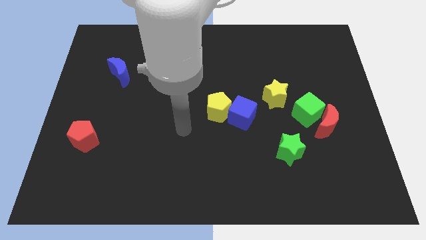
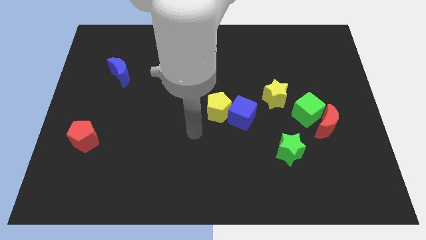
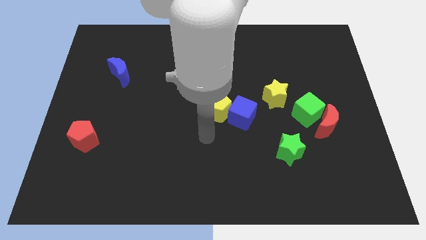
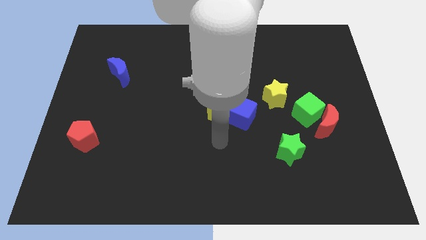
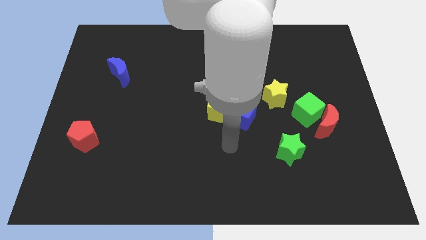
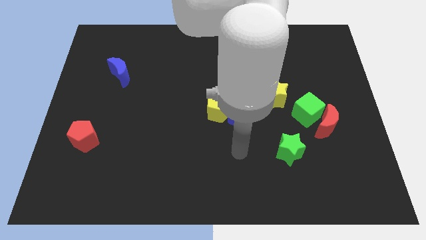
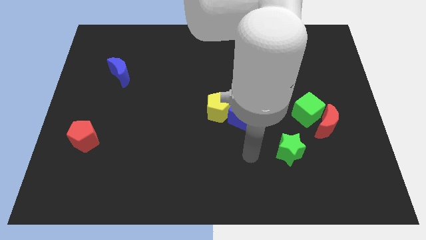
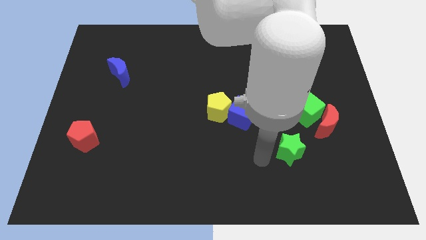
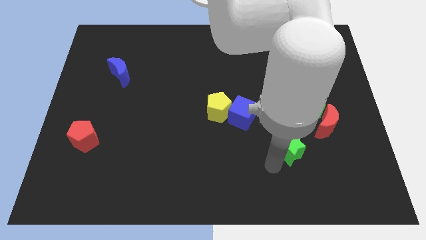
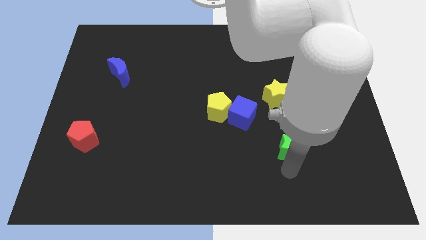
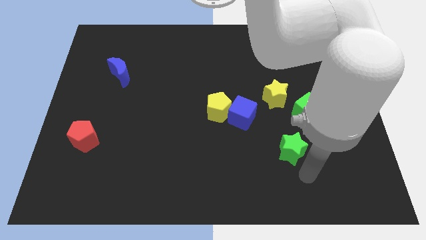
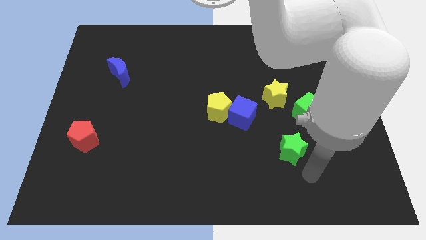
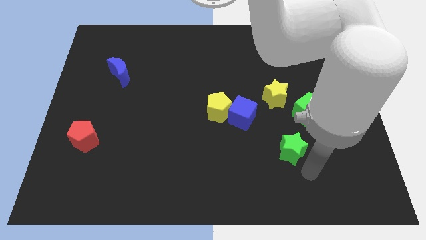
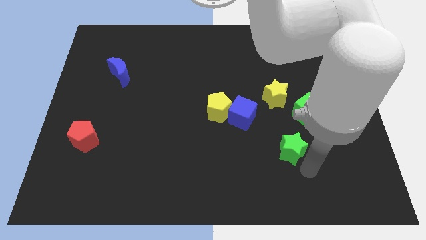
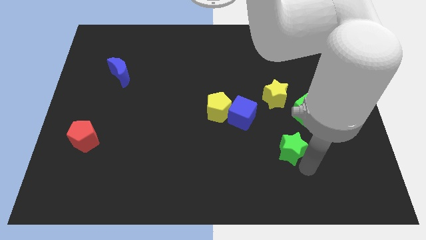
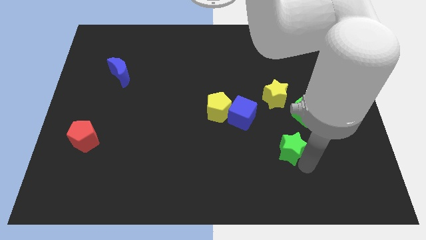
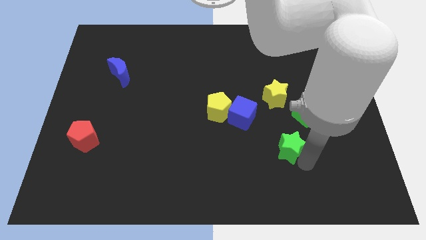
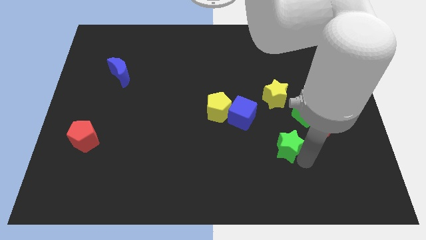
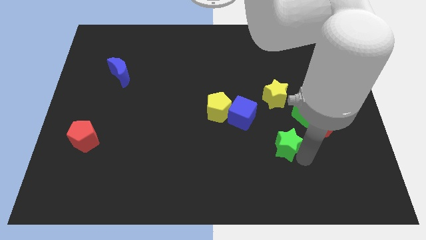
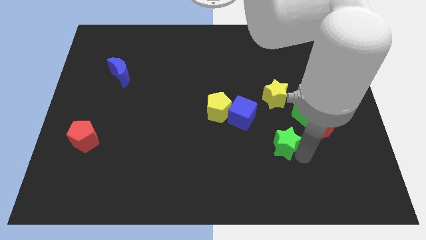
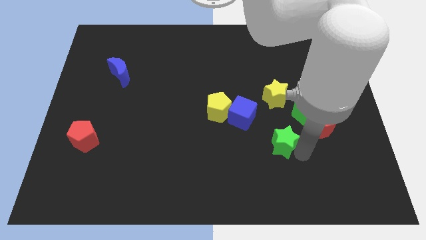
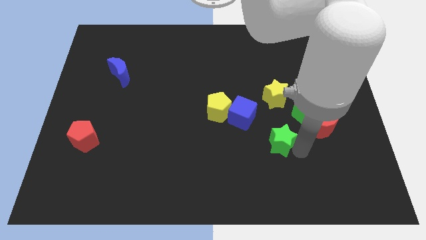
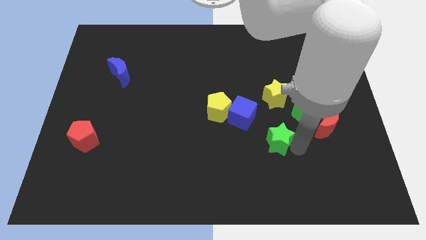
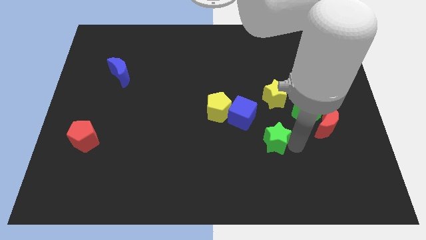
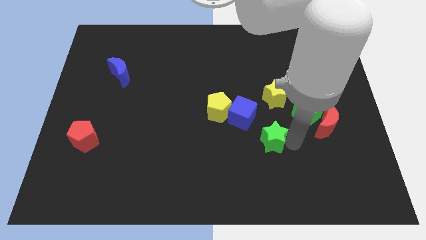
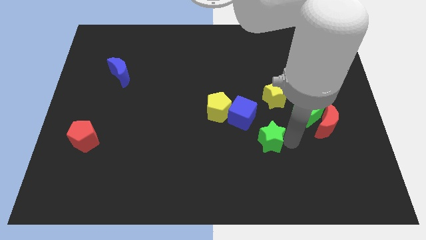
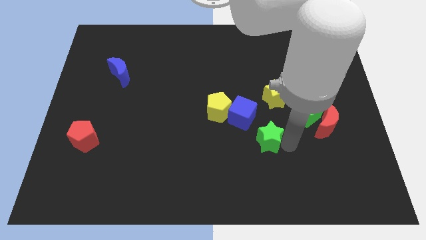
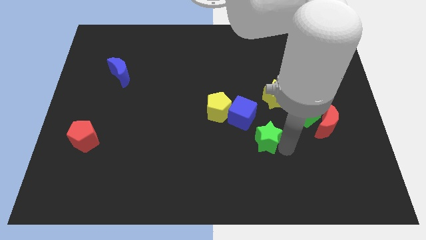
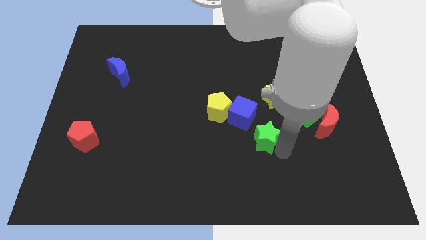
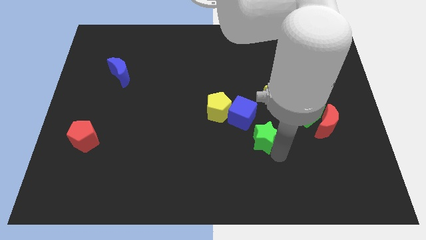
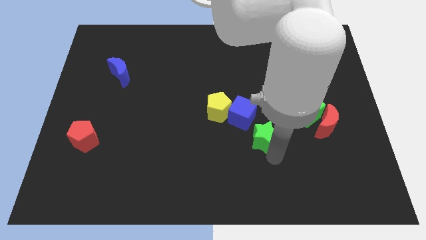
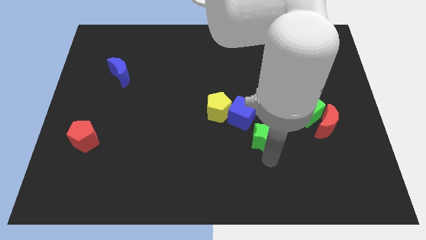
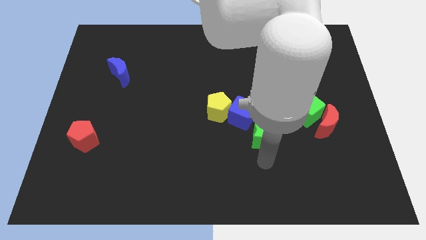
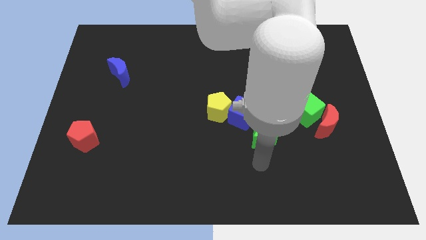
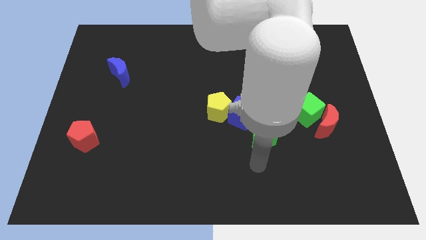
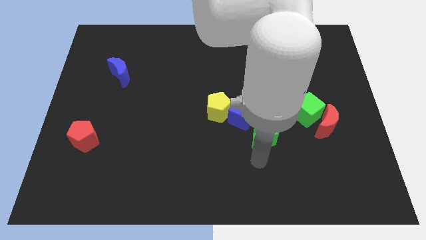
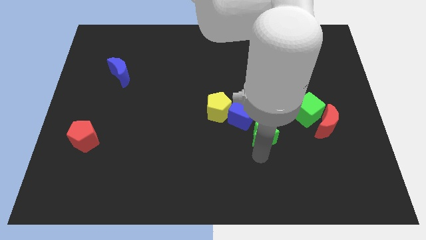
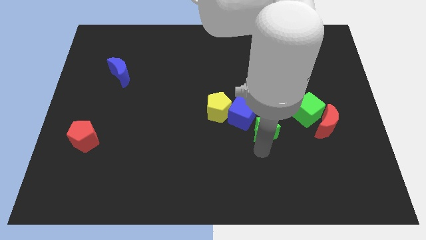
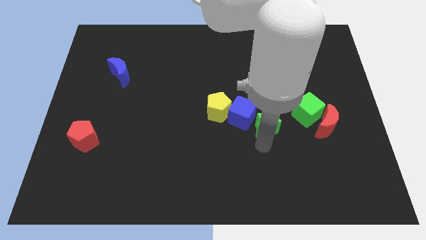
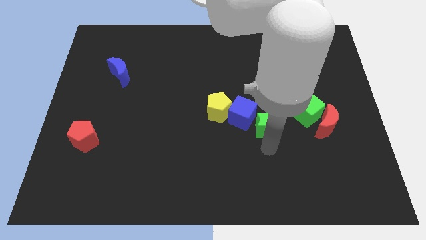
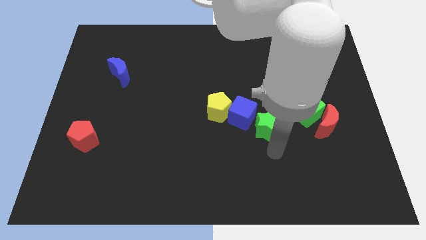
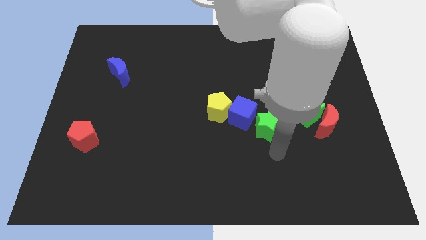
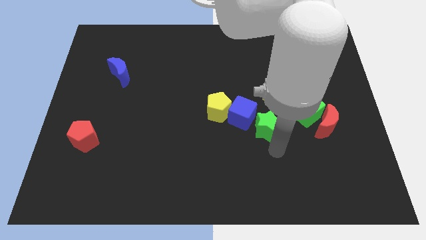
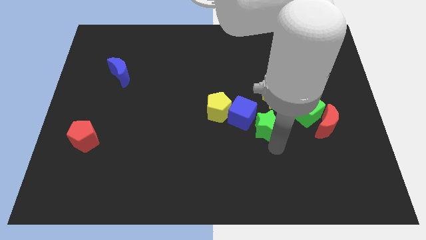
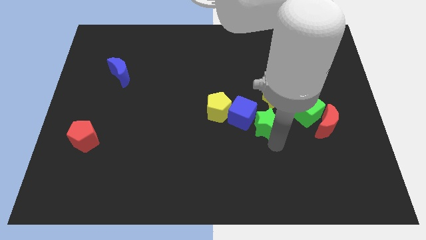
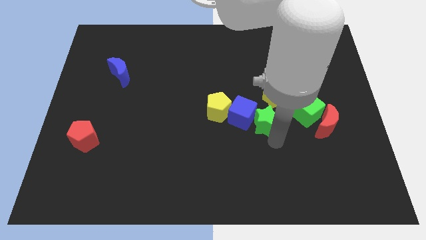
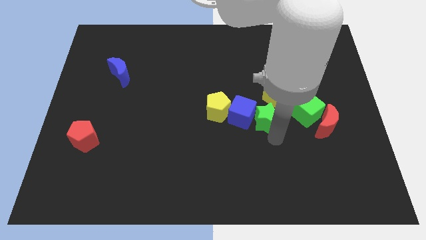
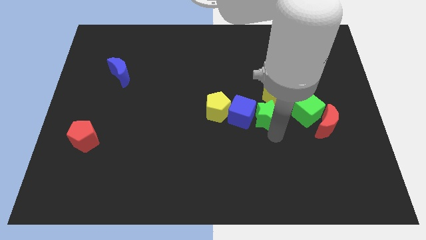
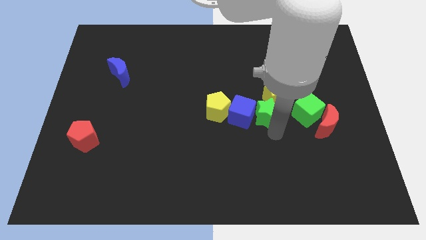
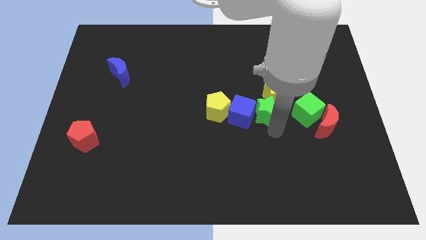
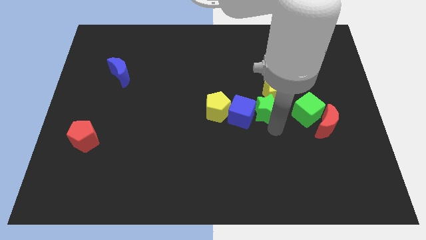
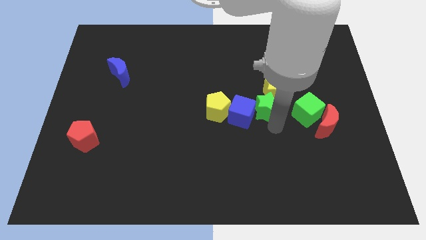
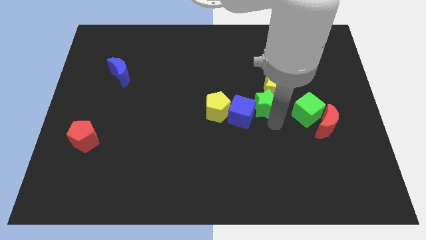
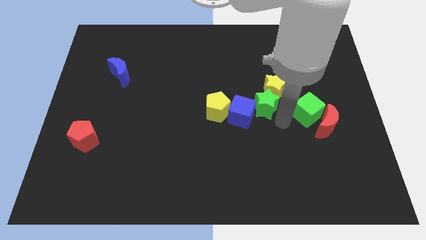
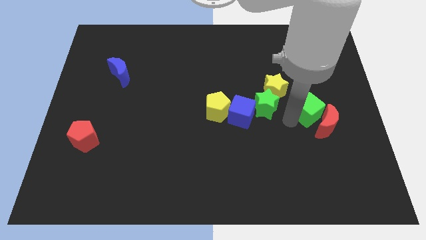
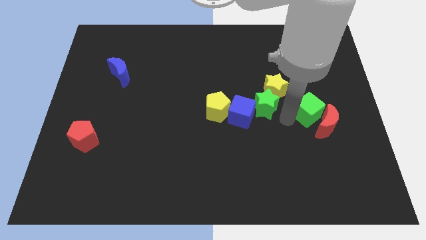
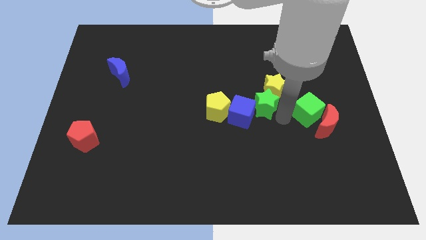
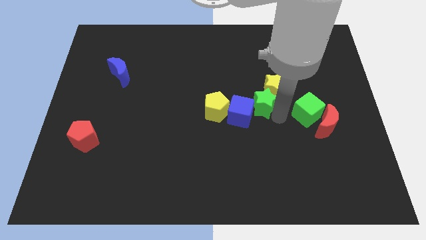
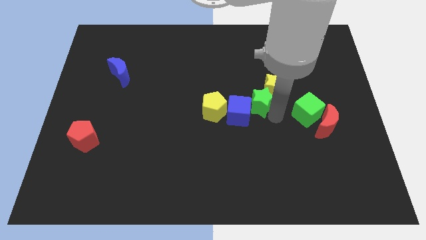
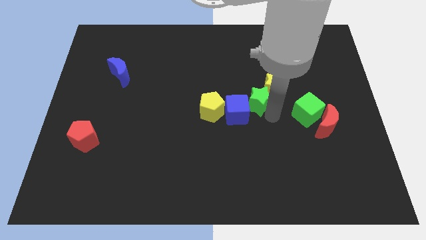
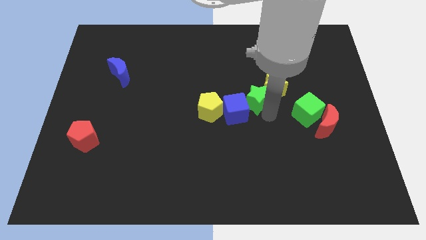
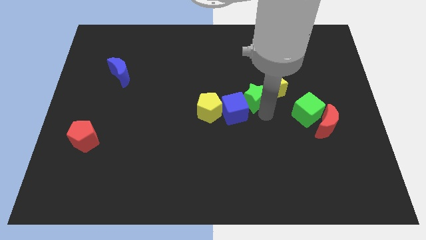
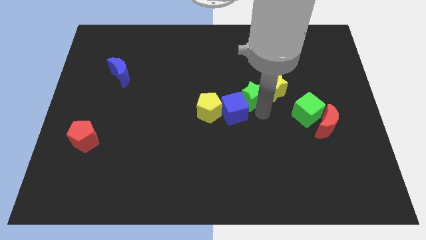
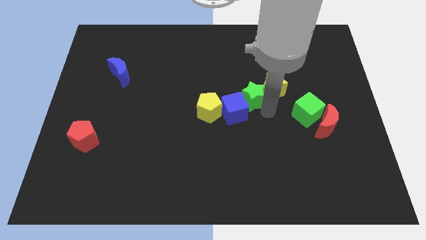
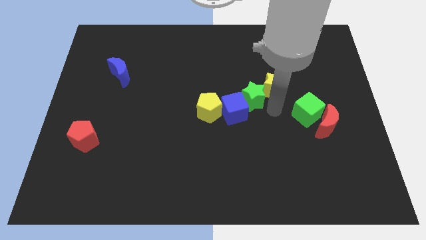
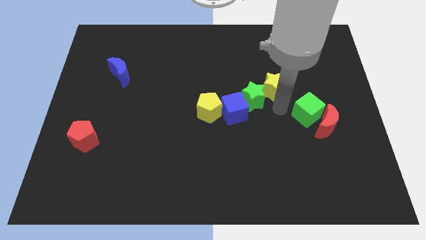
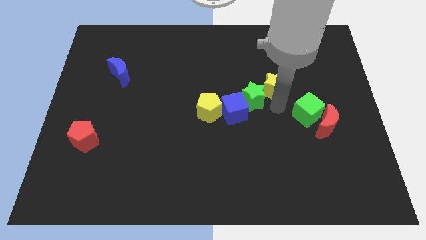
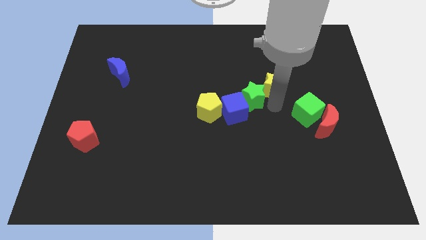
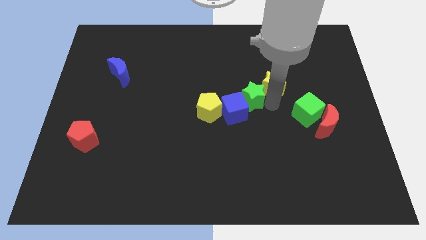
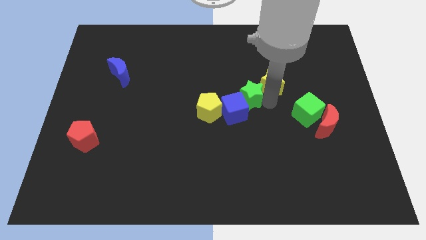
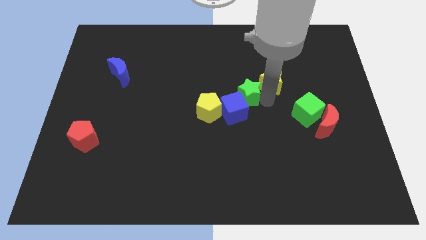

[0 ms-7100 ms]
move the green star to the top right side of the yellow pentagon
